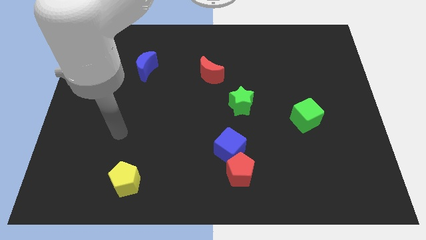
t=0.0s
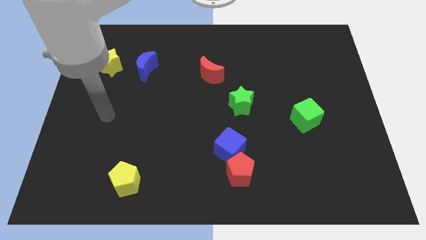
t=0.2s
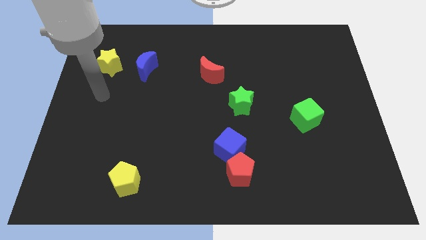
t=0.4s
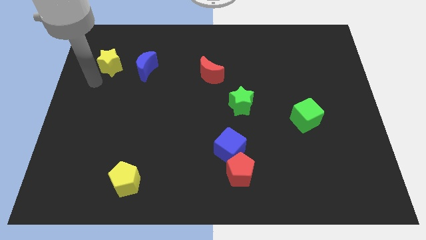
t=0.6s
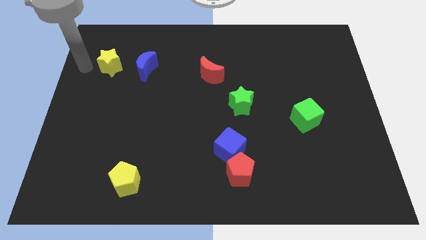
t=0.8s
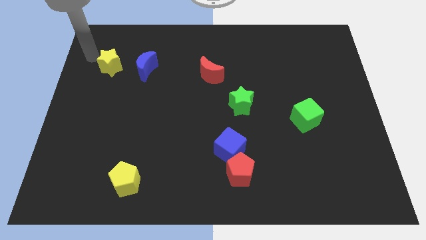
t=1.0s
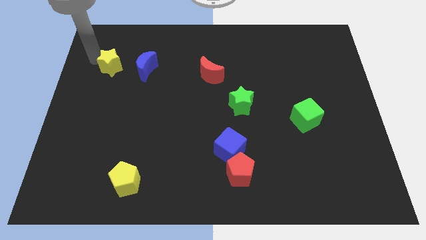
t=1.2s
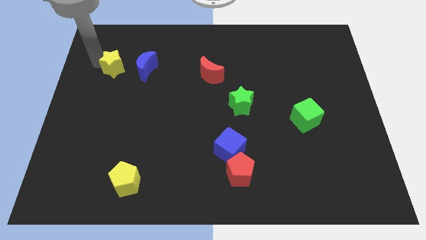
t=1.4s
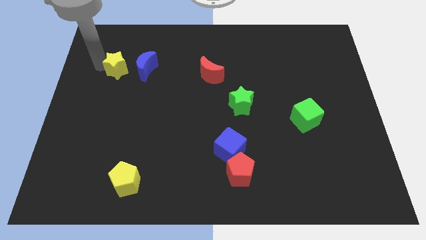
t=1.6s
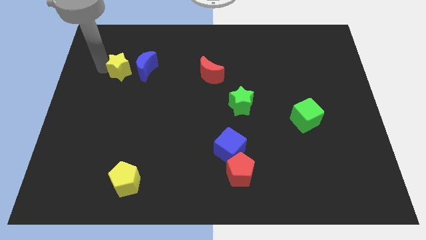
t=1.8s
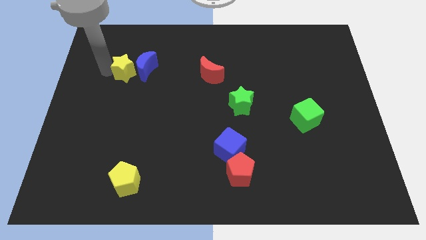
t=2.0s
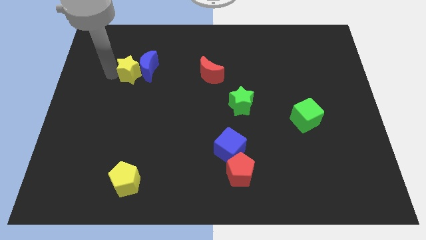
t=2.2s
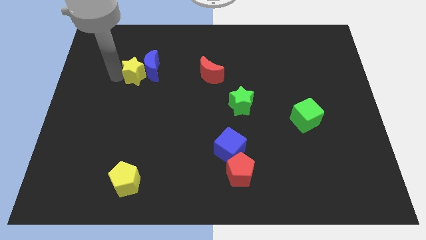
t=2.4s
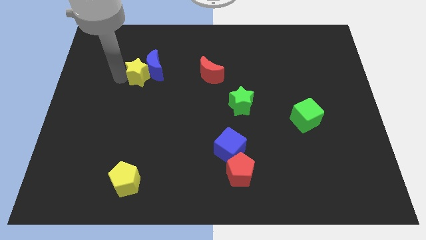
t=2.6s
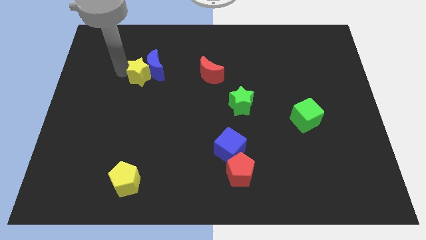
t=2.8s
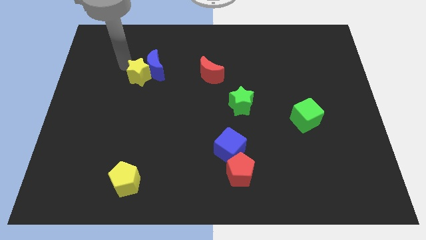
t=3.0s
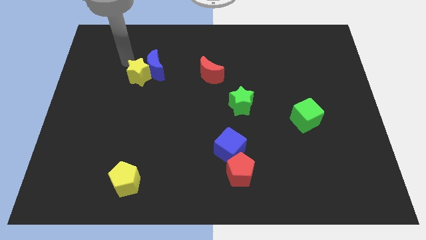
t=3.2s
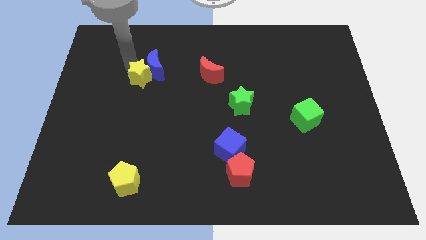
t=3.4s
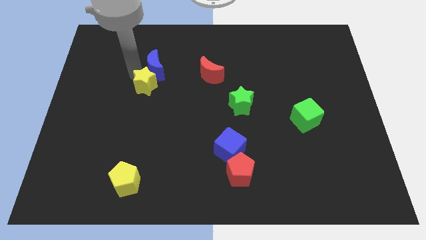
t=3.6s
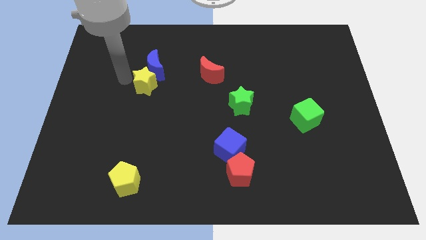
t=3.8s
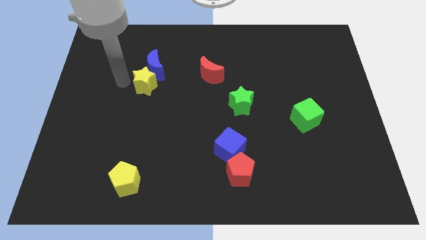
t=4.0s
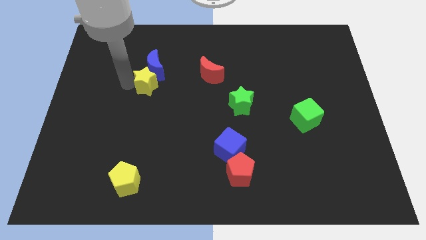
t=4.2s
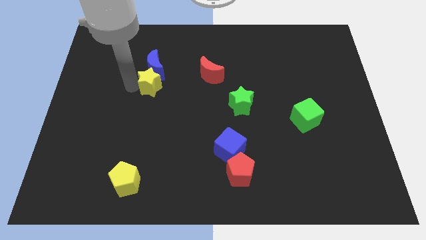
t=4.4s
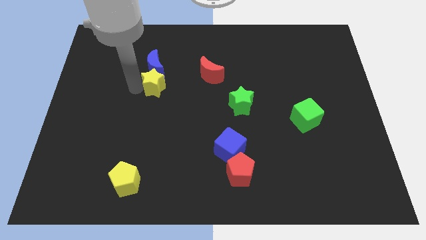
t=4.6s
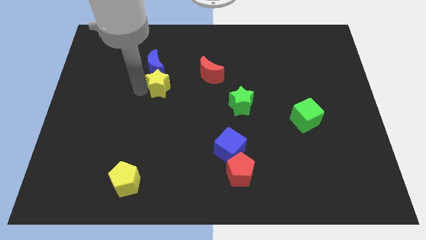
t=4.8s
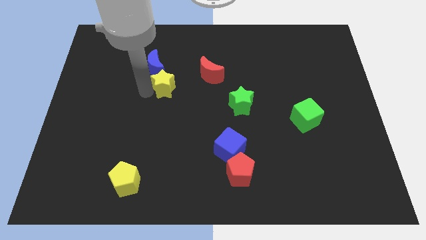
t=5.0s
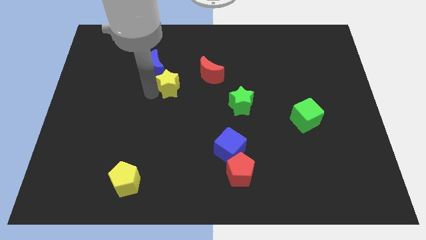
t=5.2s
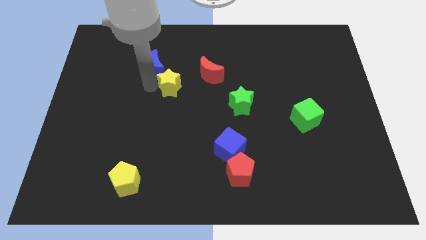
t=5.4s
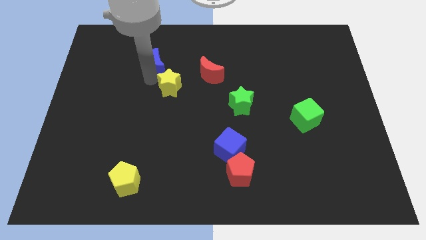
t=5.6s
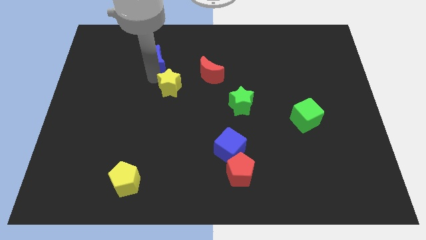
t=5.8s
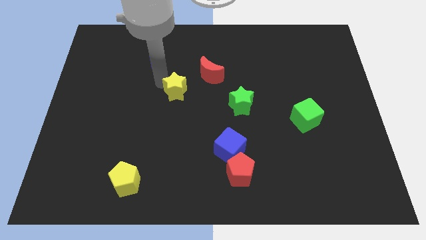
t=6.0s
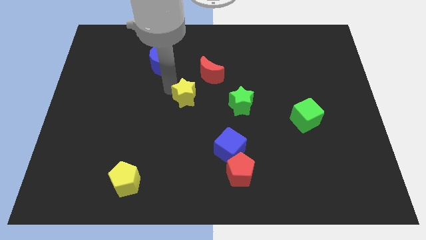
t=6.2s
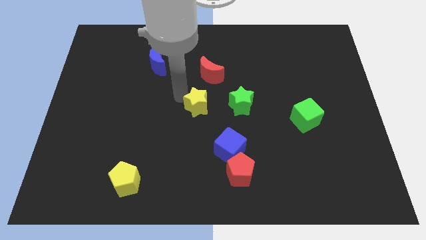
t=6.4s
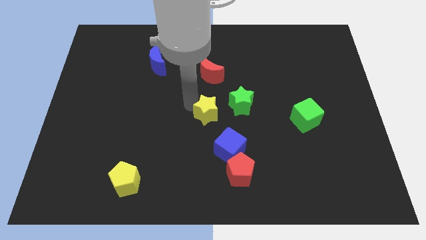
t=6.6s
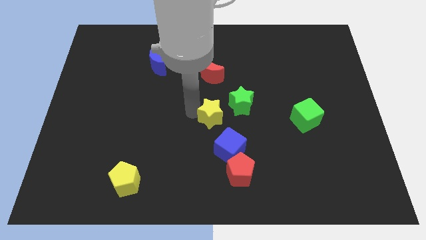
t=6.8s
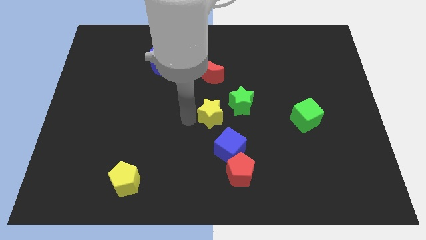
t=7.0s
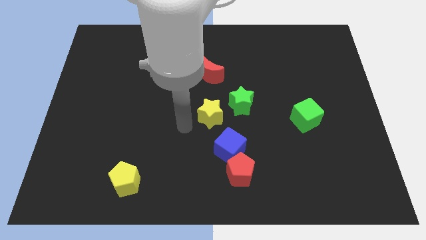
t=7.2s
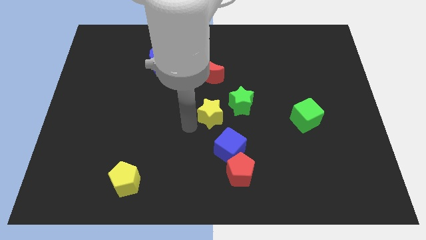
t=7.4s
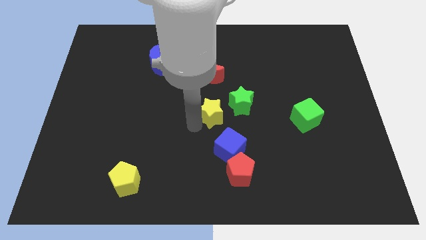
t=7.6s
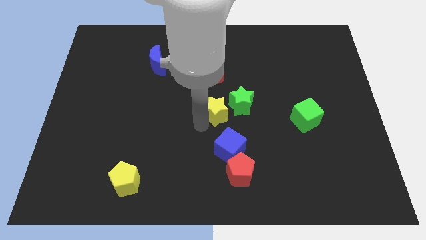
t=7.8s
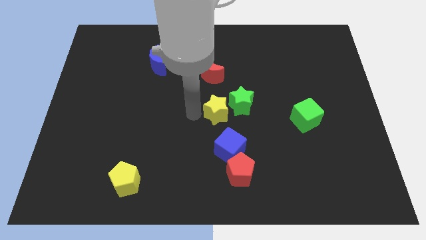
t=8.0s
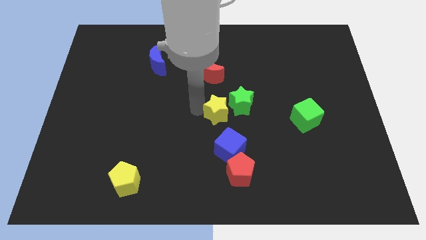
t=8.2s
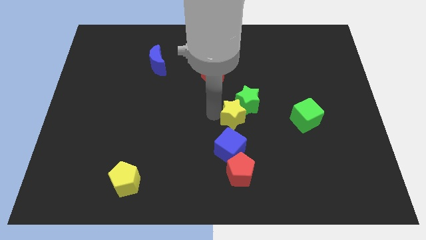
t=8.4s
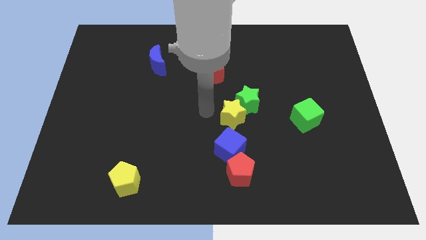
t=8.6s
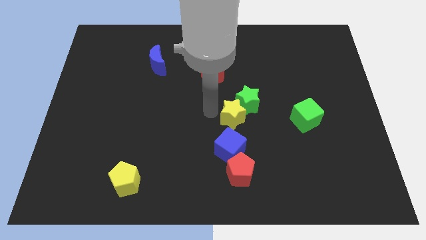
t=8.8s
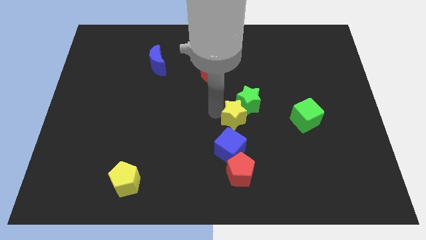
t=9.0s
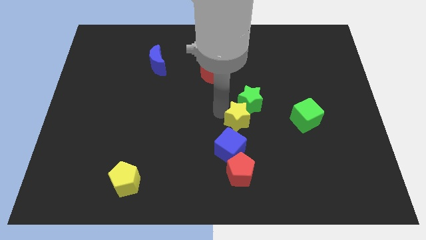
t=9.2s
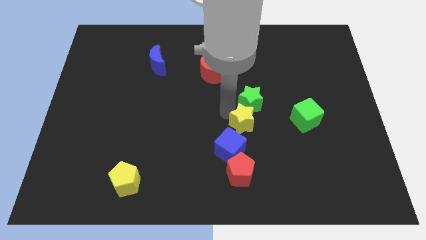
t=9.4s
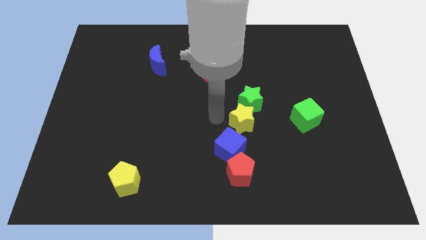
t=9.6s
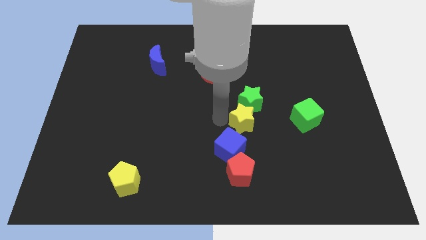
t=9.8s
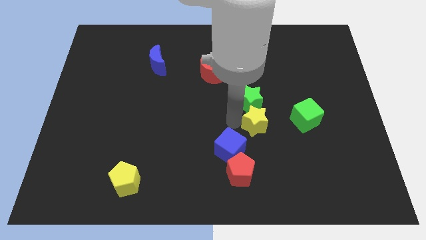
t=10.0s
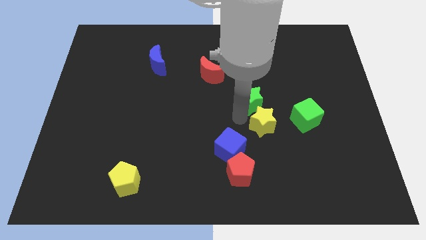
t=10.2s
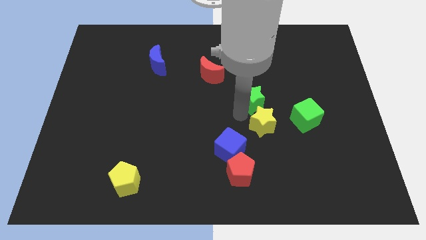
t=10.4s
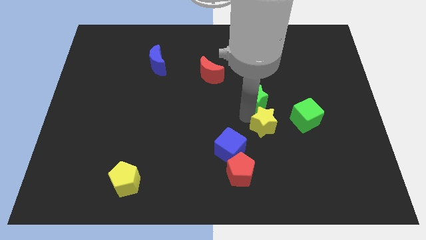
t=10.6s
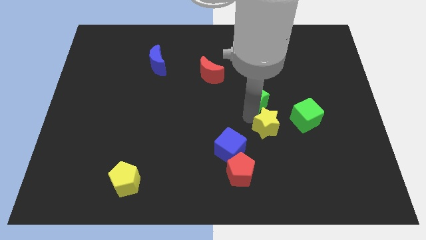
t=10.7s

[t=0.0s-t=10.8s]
push the yellow star diagonally down and to the left of the green cube

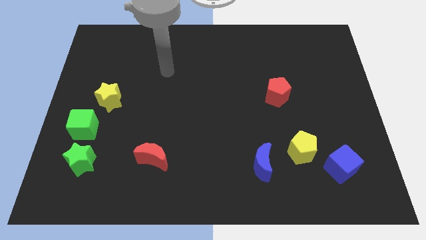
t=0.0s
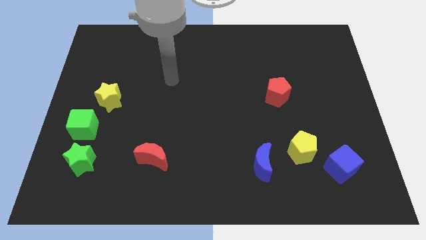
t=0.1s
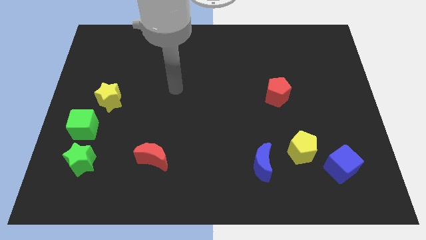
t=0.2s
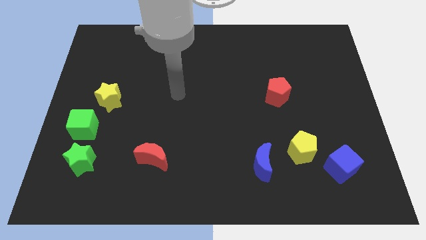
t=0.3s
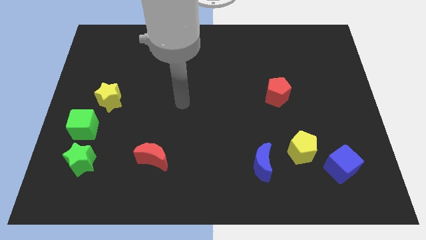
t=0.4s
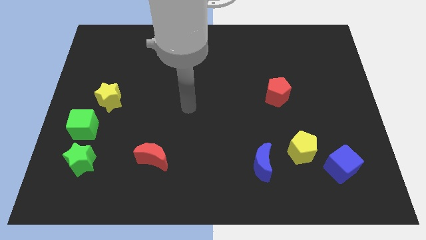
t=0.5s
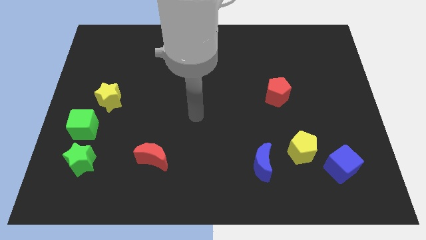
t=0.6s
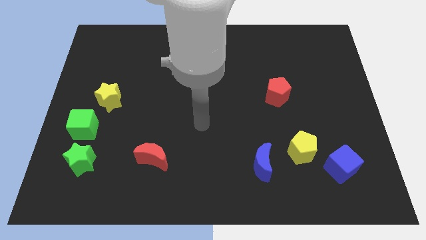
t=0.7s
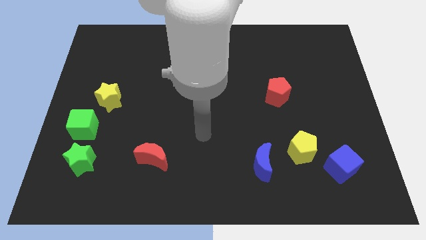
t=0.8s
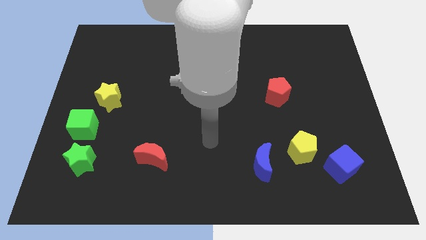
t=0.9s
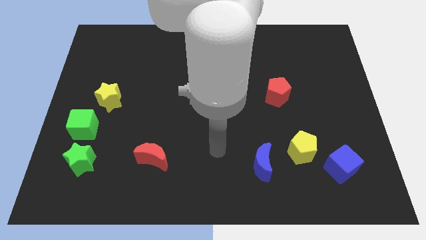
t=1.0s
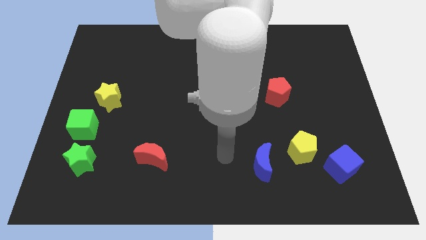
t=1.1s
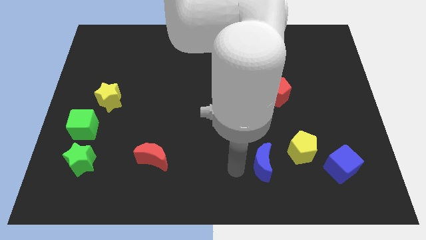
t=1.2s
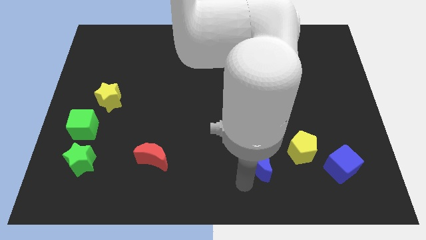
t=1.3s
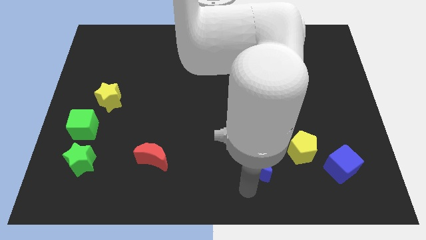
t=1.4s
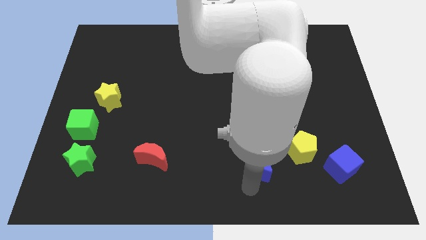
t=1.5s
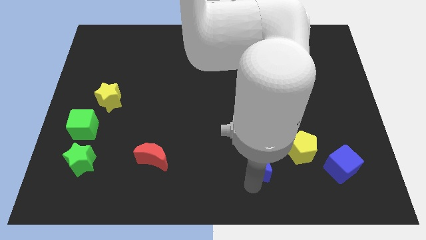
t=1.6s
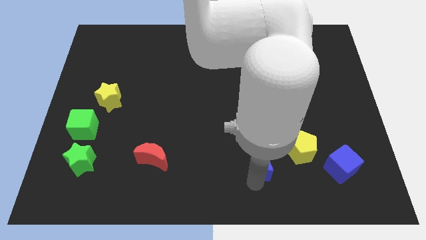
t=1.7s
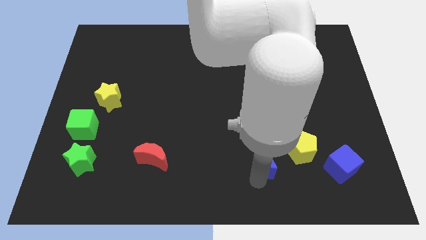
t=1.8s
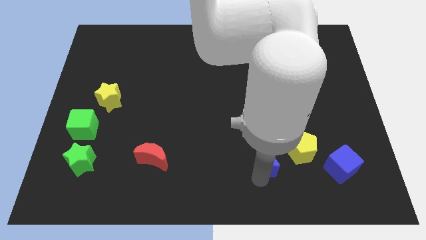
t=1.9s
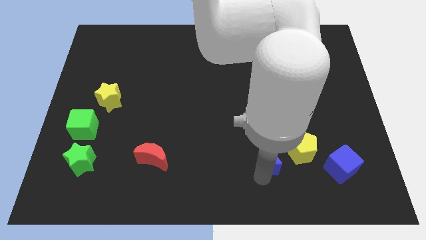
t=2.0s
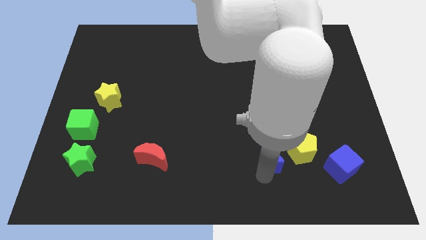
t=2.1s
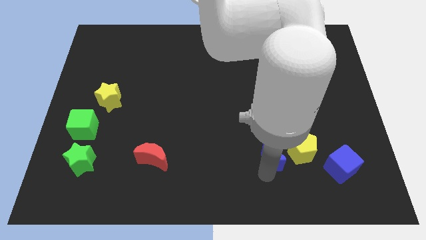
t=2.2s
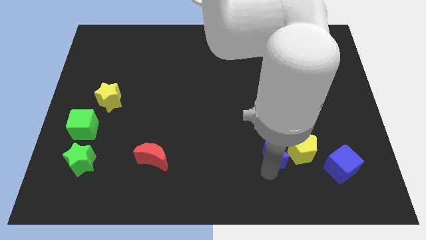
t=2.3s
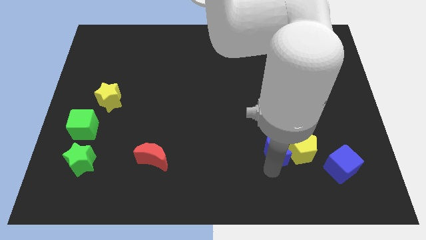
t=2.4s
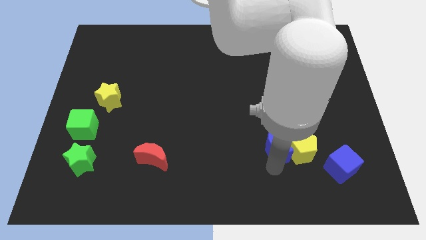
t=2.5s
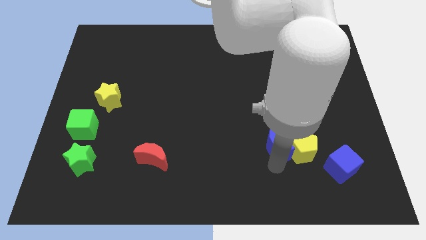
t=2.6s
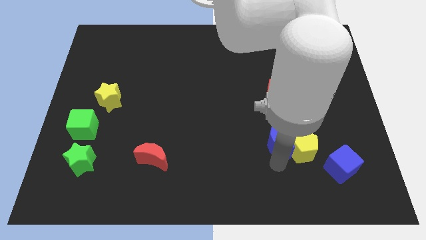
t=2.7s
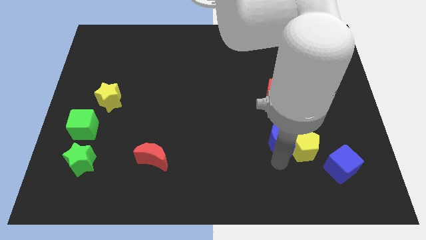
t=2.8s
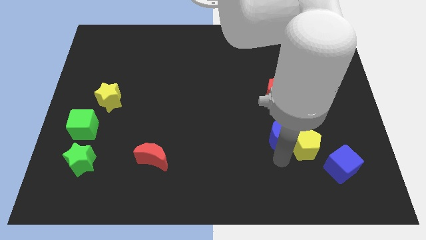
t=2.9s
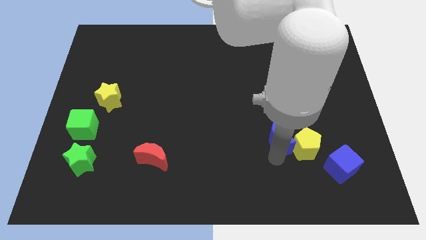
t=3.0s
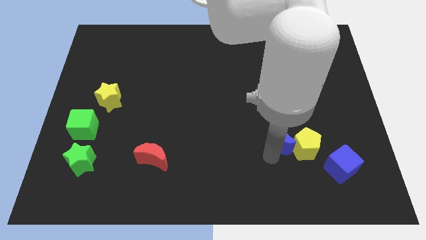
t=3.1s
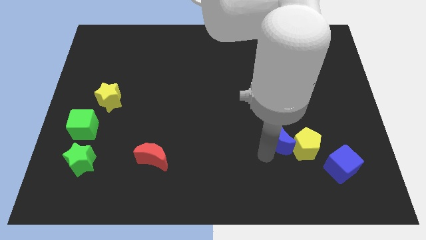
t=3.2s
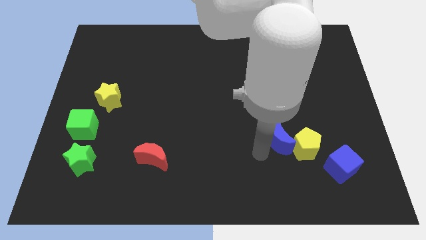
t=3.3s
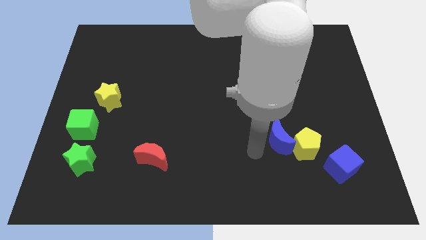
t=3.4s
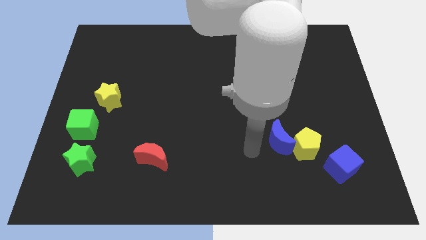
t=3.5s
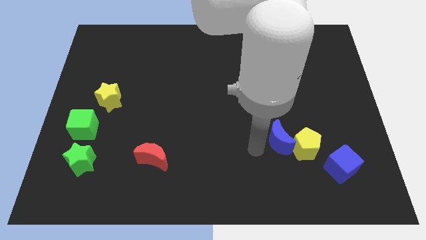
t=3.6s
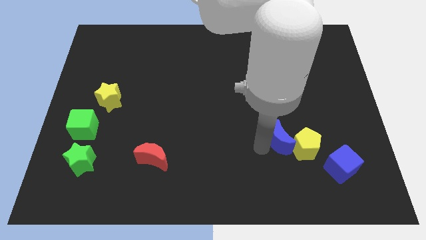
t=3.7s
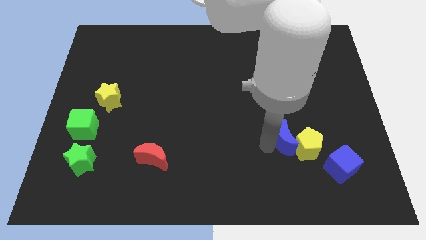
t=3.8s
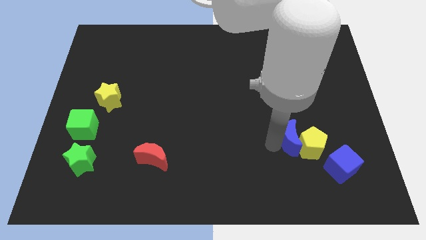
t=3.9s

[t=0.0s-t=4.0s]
push the blue moon diagonally up and to the left of the blue cube
